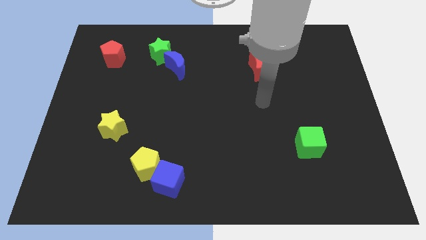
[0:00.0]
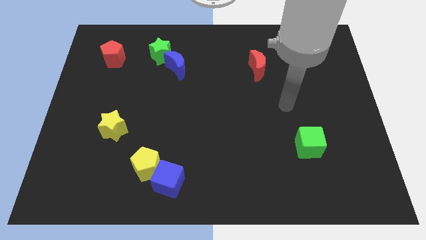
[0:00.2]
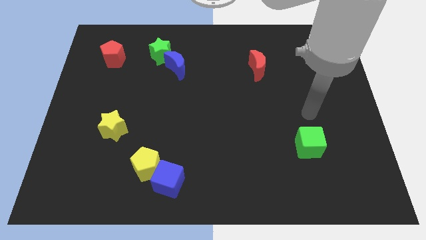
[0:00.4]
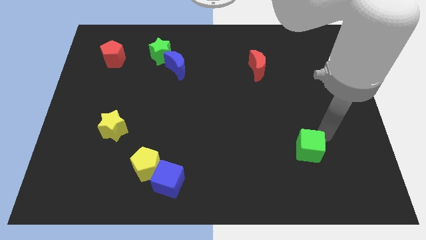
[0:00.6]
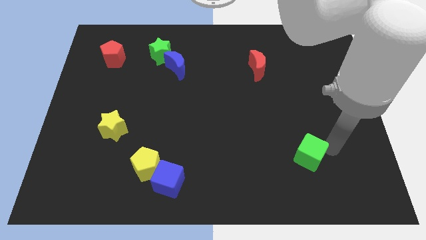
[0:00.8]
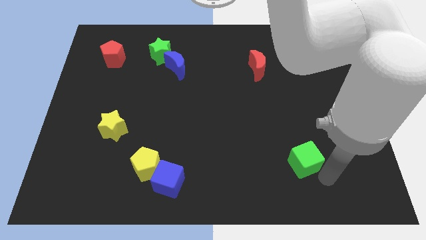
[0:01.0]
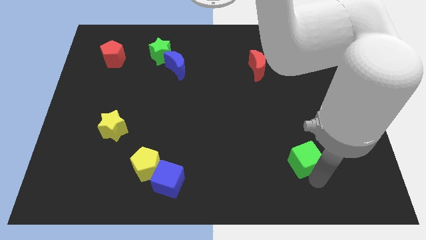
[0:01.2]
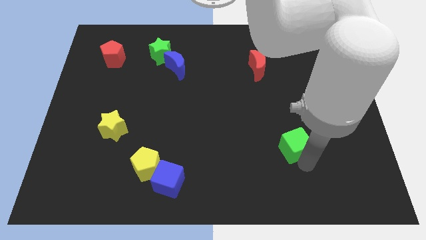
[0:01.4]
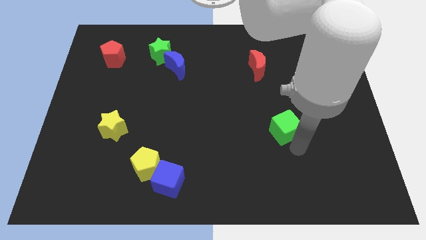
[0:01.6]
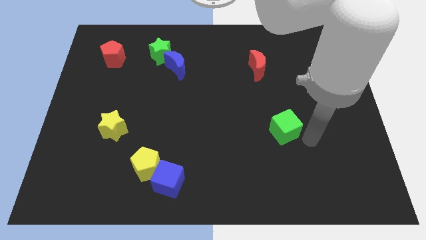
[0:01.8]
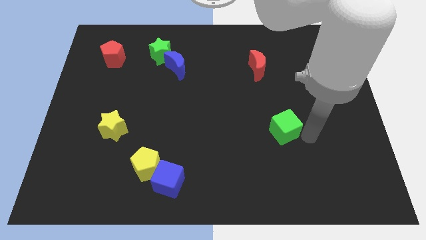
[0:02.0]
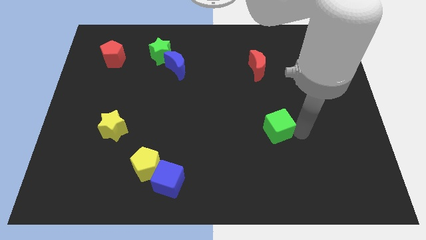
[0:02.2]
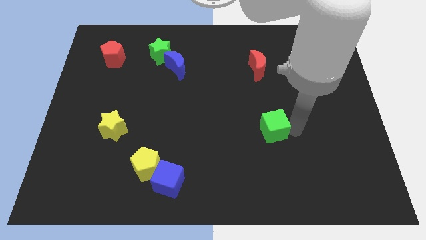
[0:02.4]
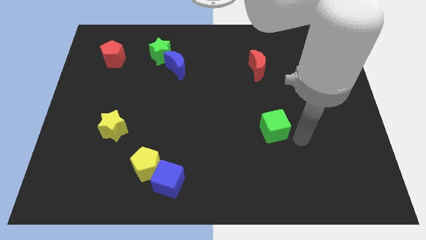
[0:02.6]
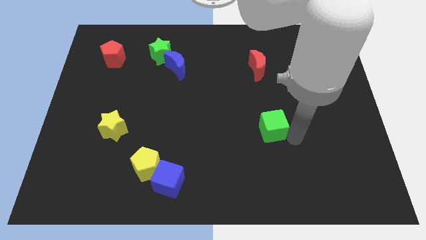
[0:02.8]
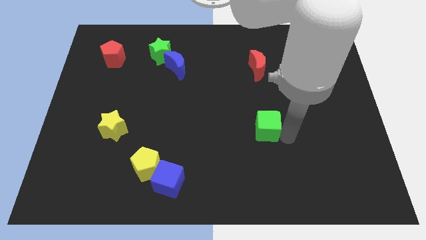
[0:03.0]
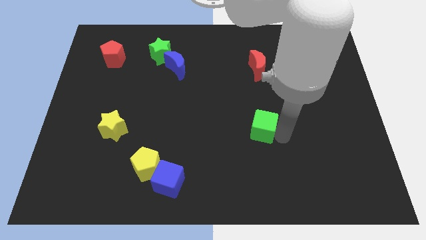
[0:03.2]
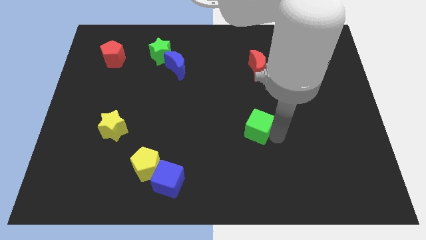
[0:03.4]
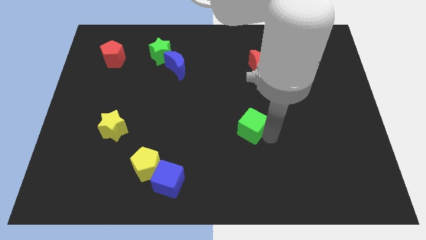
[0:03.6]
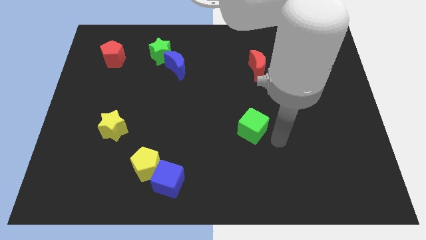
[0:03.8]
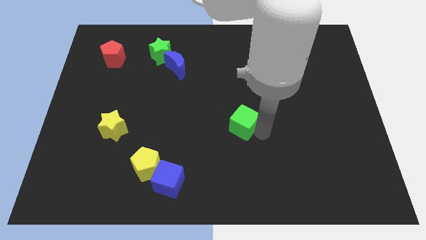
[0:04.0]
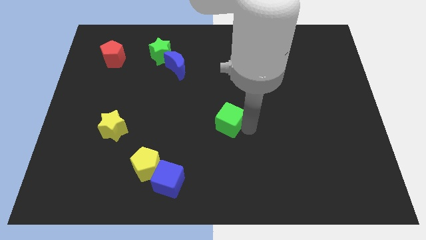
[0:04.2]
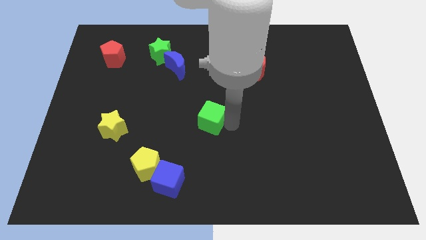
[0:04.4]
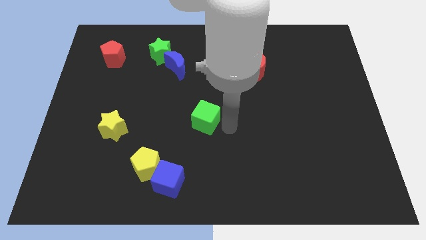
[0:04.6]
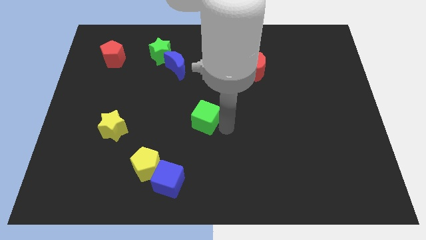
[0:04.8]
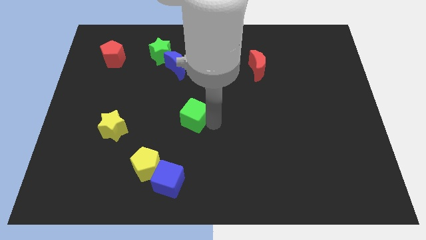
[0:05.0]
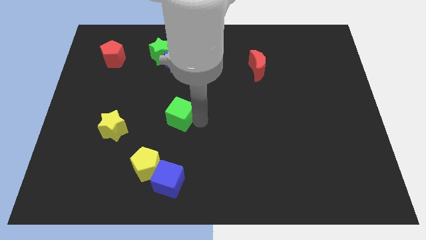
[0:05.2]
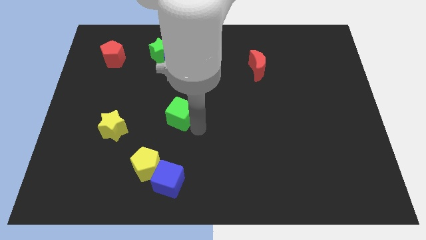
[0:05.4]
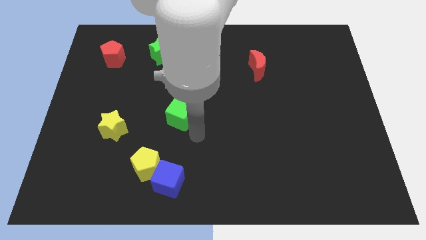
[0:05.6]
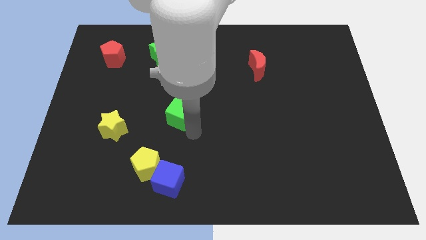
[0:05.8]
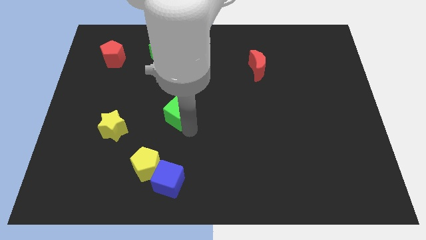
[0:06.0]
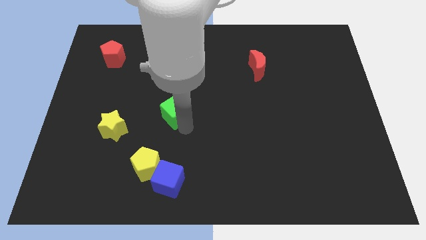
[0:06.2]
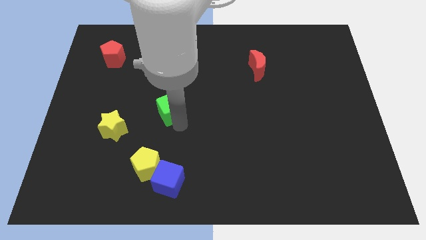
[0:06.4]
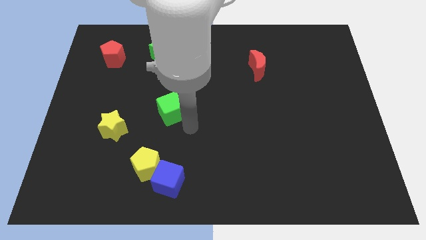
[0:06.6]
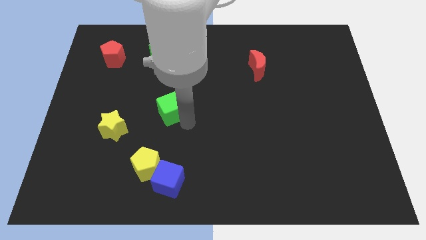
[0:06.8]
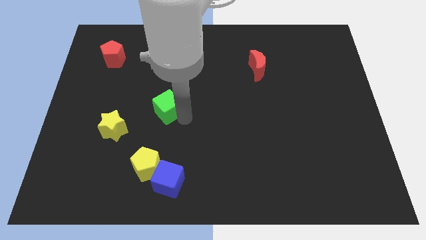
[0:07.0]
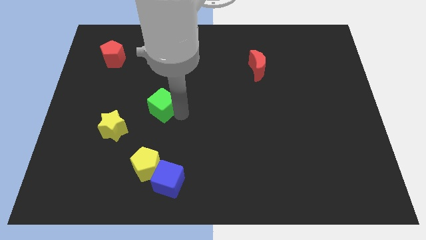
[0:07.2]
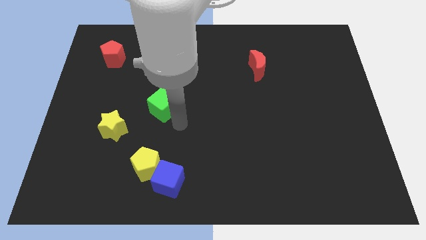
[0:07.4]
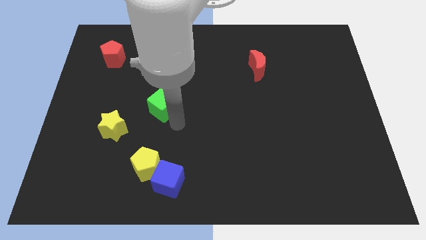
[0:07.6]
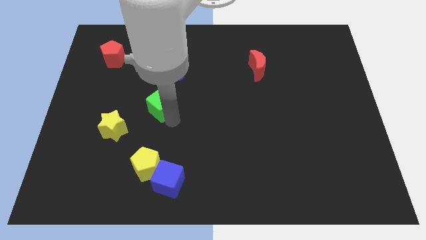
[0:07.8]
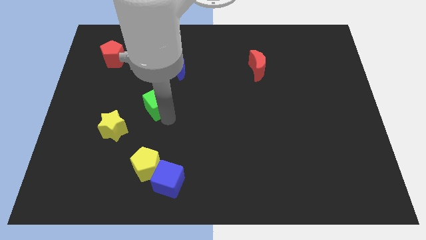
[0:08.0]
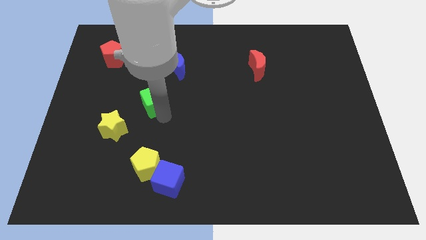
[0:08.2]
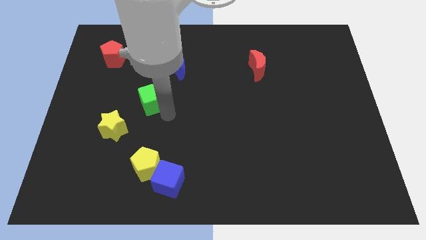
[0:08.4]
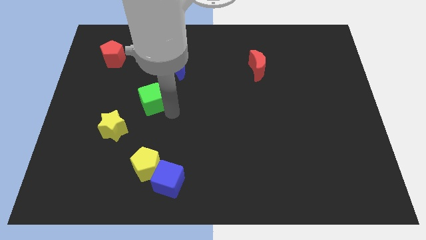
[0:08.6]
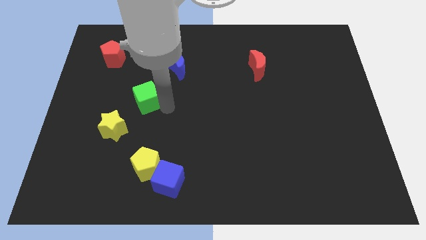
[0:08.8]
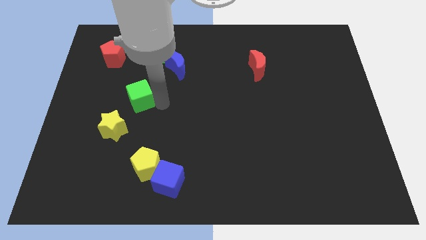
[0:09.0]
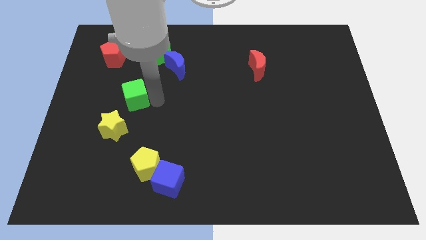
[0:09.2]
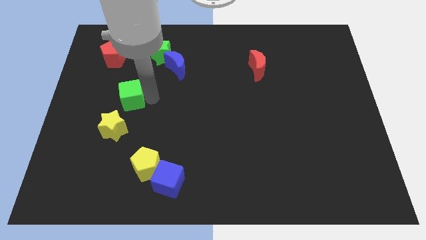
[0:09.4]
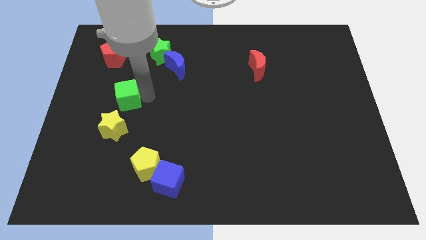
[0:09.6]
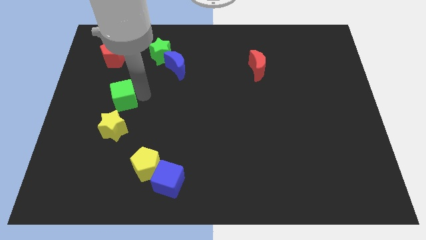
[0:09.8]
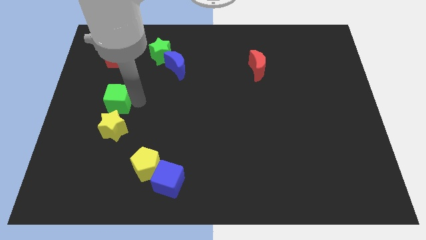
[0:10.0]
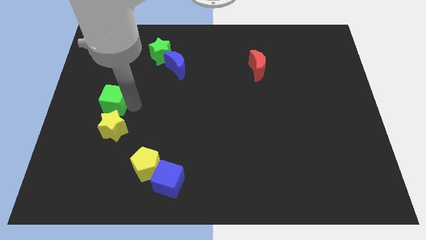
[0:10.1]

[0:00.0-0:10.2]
put the green cube below the red pentagon

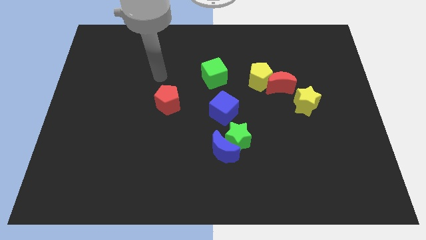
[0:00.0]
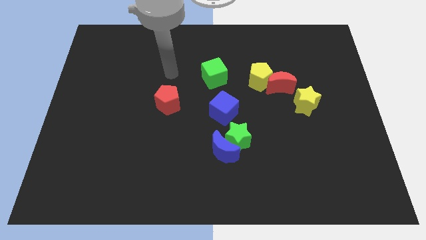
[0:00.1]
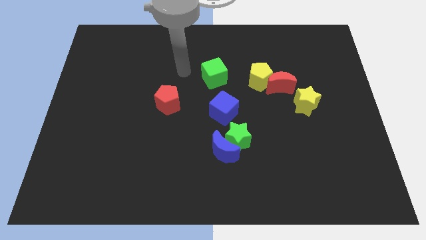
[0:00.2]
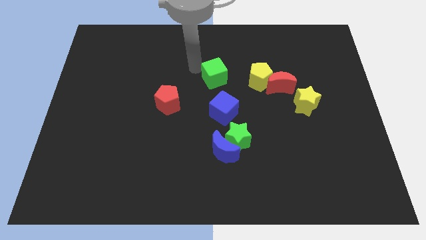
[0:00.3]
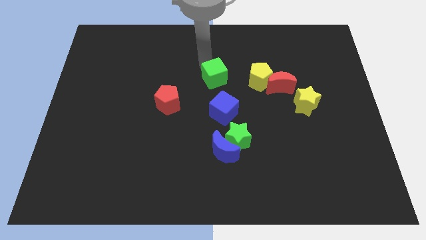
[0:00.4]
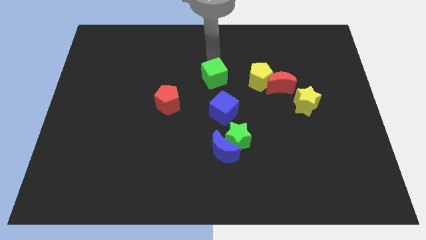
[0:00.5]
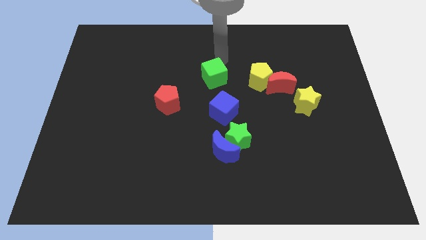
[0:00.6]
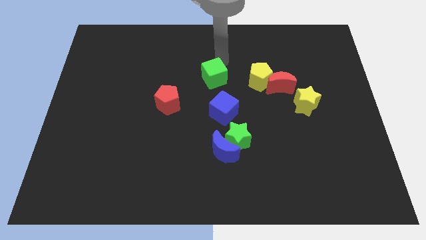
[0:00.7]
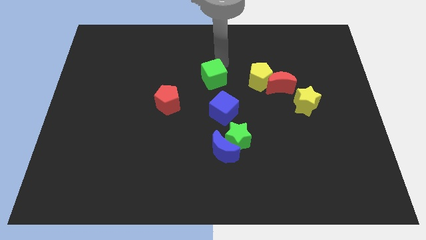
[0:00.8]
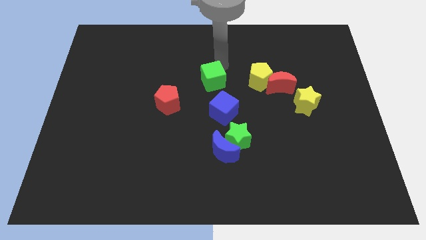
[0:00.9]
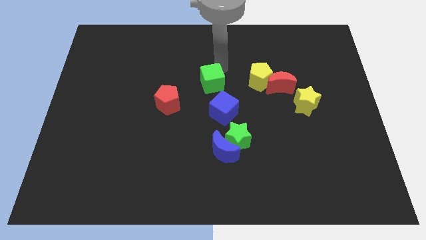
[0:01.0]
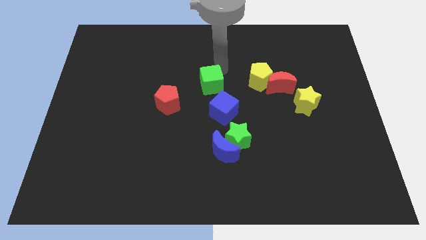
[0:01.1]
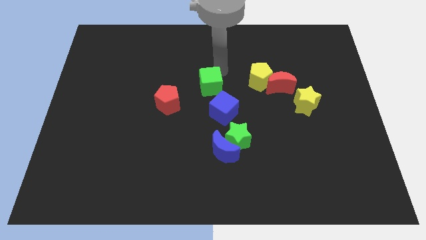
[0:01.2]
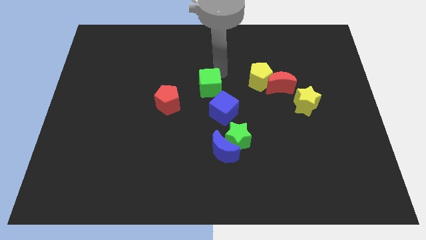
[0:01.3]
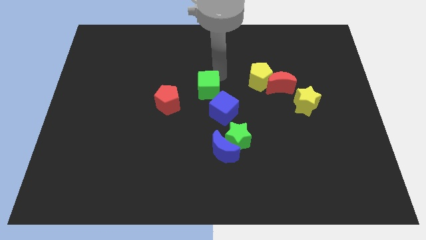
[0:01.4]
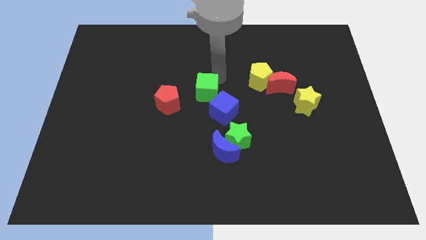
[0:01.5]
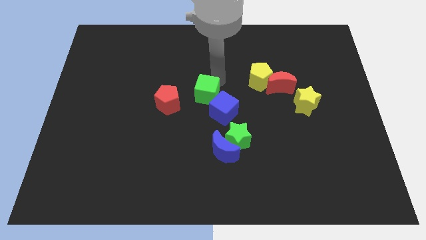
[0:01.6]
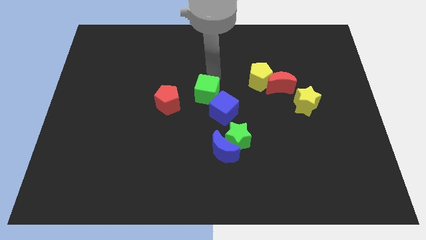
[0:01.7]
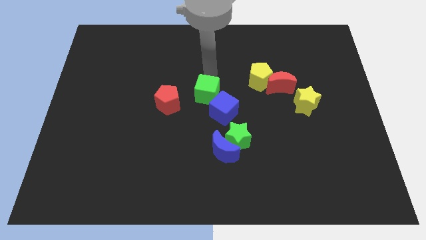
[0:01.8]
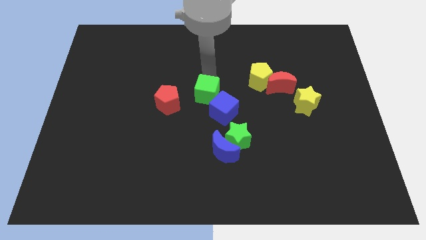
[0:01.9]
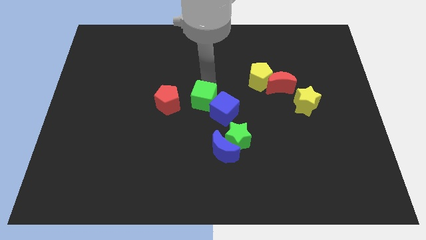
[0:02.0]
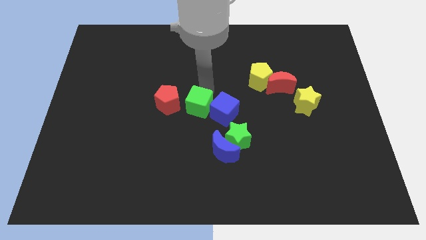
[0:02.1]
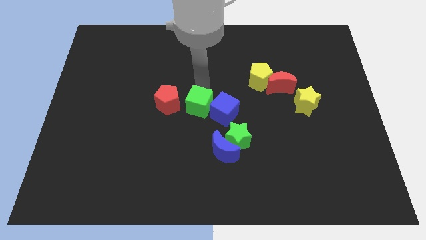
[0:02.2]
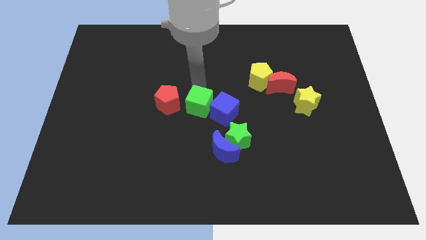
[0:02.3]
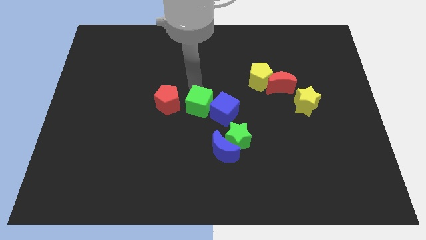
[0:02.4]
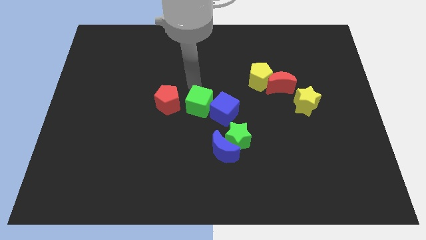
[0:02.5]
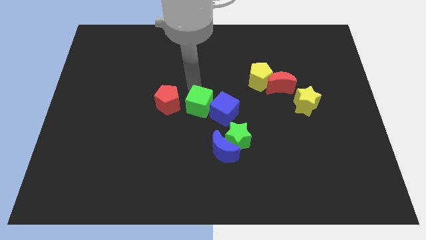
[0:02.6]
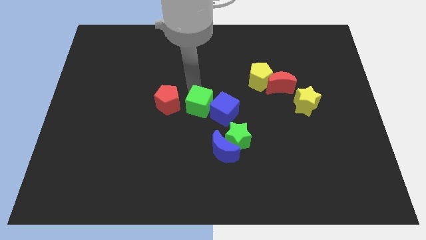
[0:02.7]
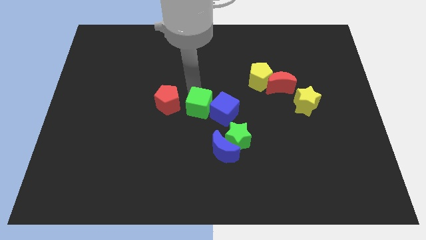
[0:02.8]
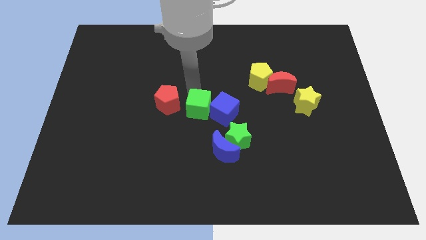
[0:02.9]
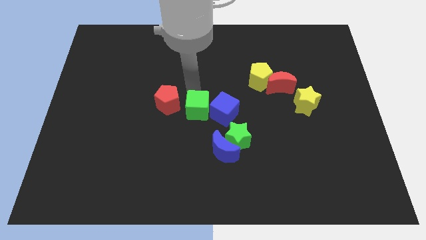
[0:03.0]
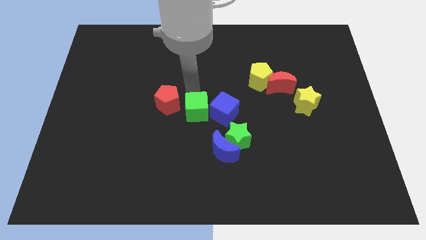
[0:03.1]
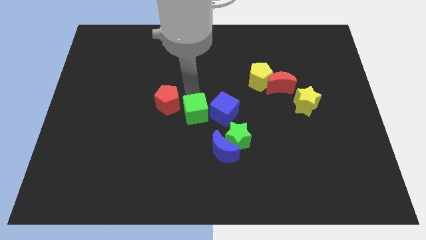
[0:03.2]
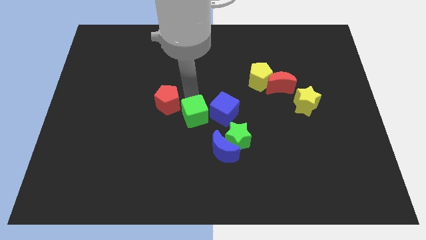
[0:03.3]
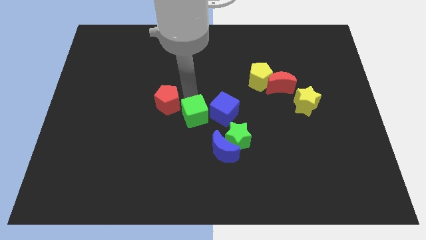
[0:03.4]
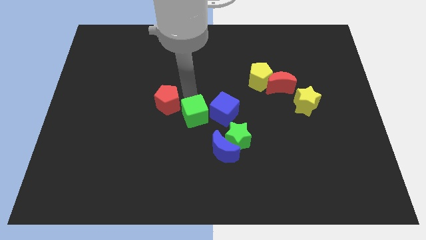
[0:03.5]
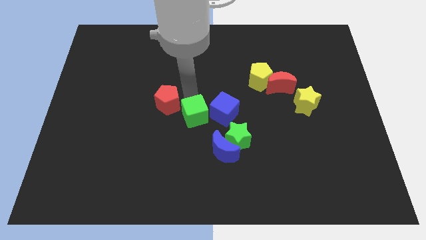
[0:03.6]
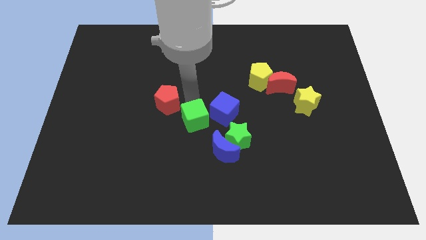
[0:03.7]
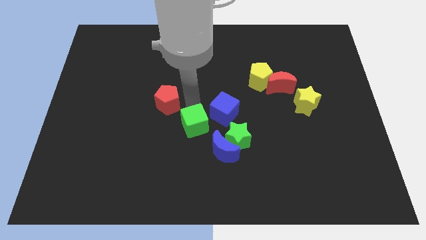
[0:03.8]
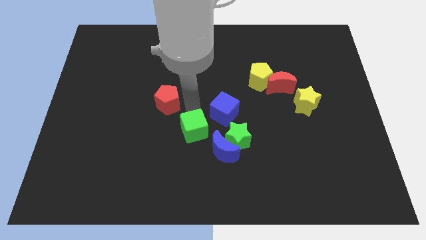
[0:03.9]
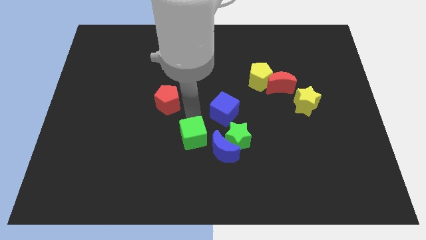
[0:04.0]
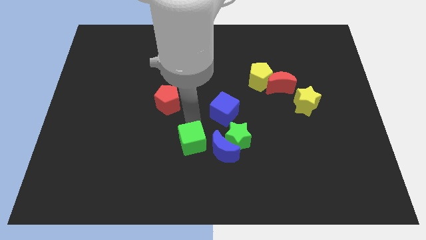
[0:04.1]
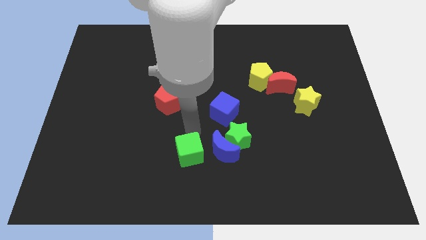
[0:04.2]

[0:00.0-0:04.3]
push the green cube to the bottom left of the blue moon
